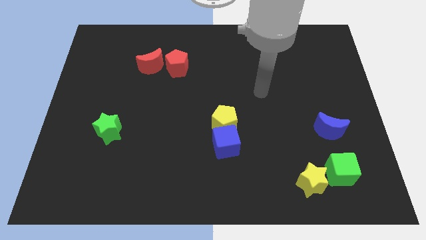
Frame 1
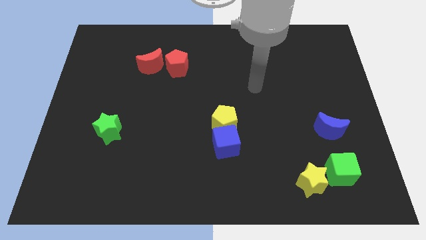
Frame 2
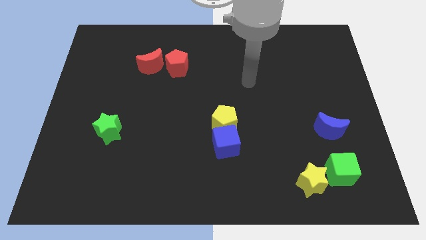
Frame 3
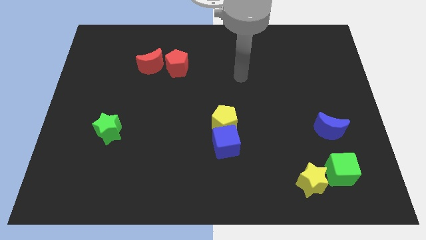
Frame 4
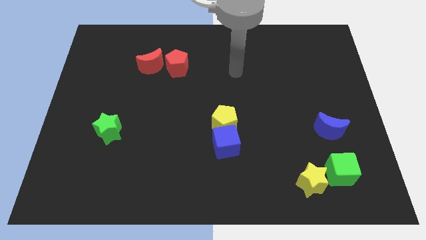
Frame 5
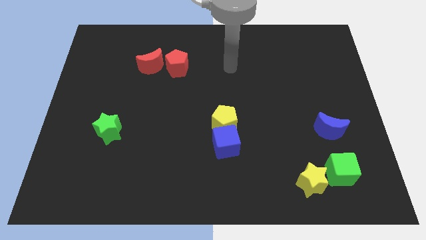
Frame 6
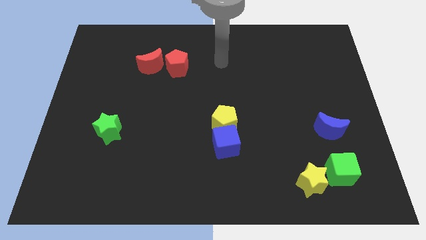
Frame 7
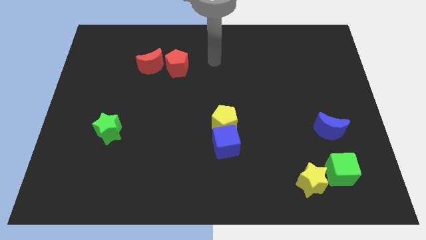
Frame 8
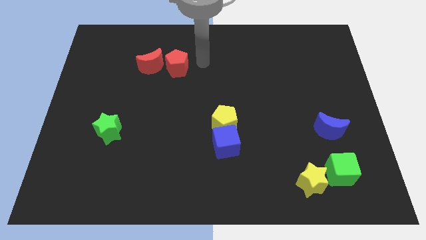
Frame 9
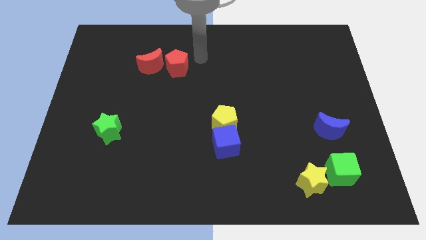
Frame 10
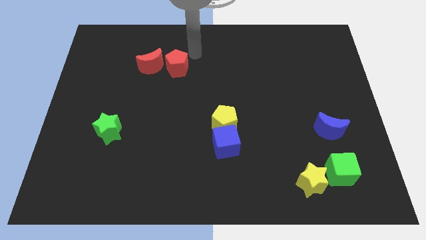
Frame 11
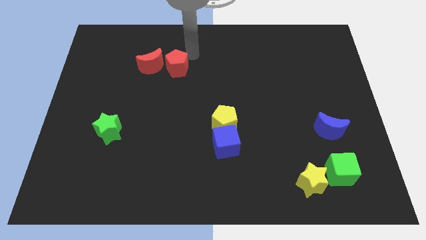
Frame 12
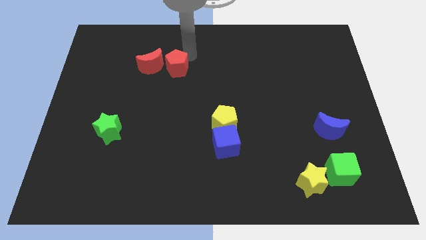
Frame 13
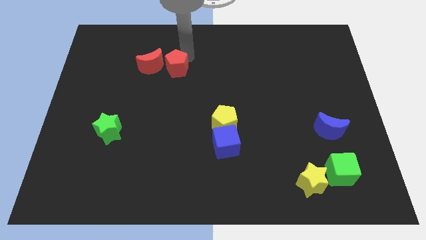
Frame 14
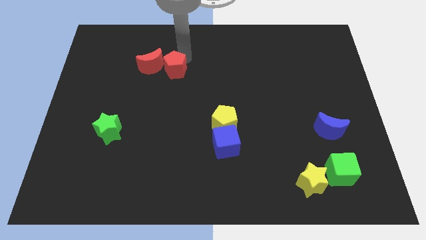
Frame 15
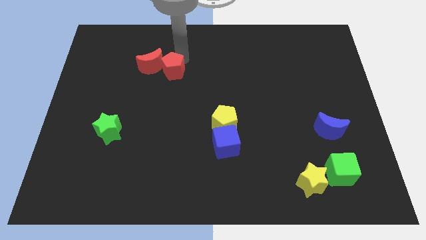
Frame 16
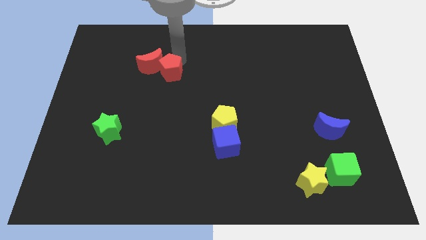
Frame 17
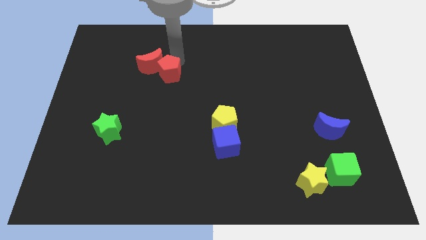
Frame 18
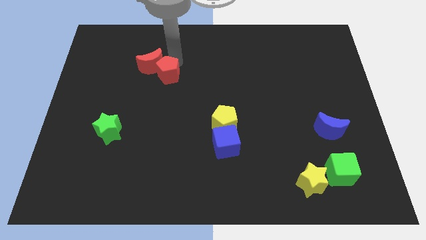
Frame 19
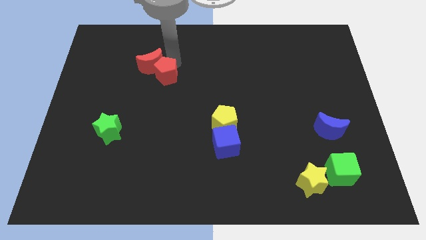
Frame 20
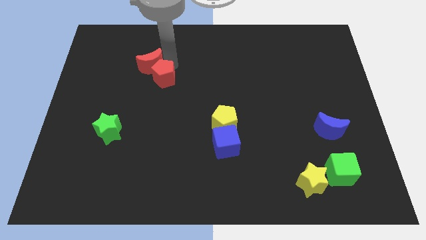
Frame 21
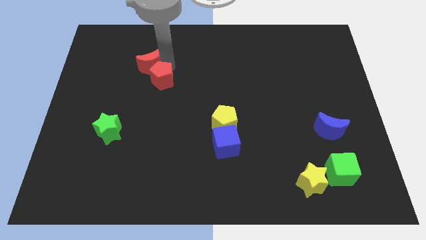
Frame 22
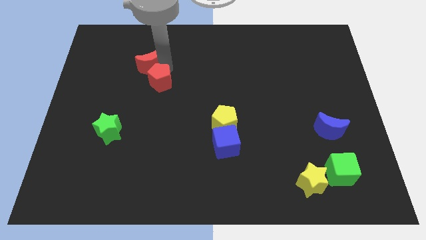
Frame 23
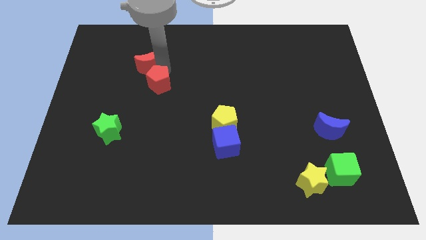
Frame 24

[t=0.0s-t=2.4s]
slightly push the red pentagon down and to the left diagonally

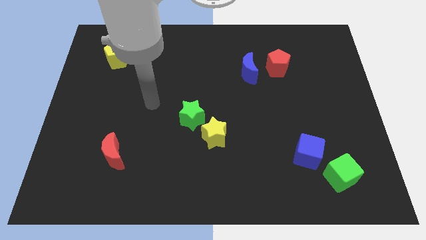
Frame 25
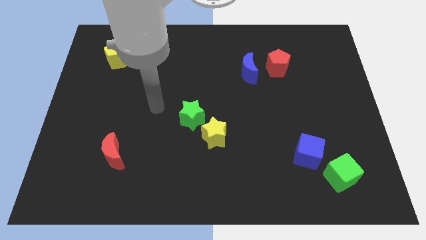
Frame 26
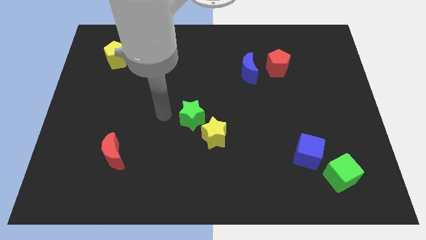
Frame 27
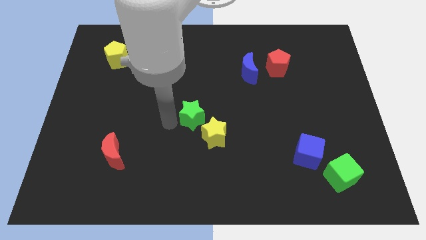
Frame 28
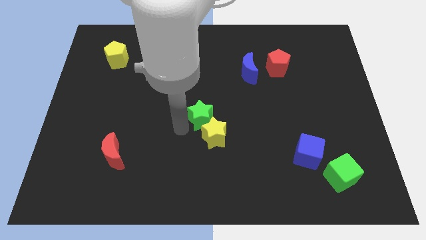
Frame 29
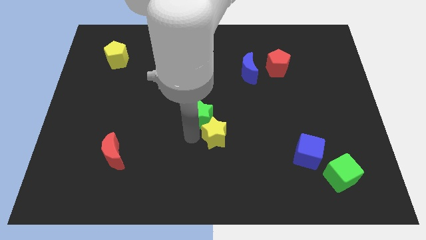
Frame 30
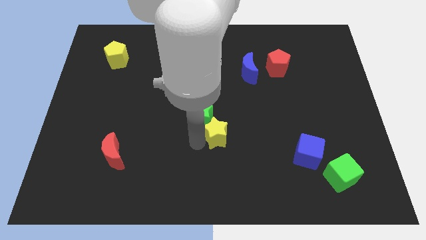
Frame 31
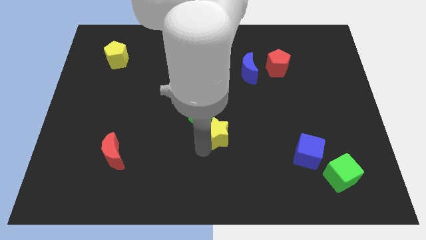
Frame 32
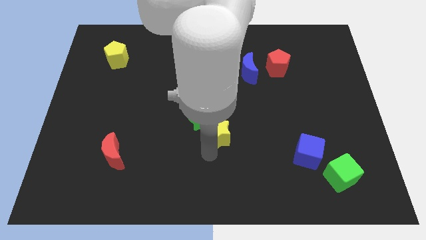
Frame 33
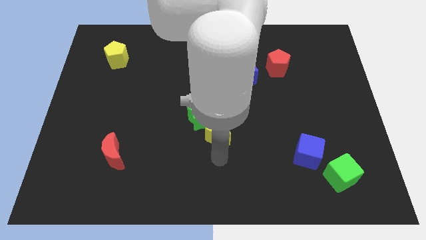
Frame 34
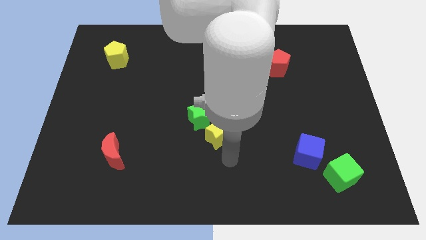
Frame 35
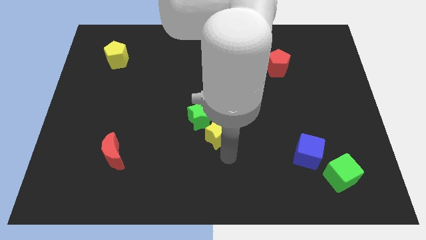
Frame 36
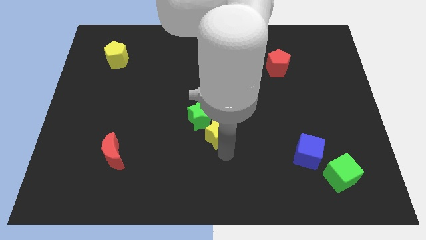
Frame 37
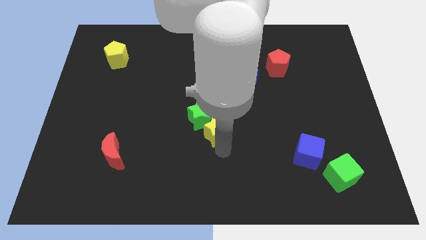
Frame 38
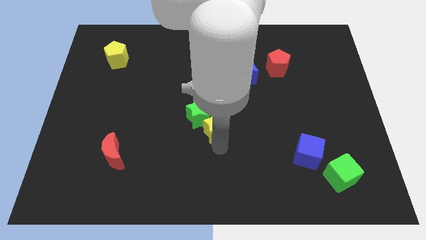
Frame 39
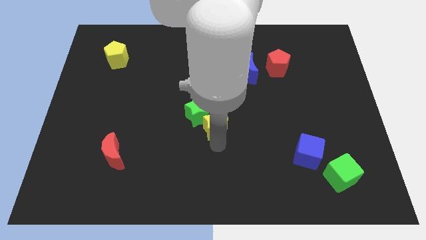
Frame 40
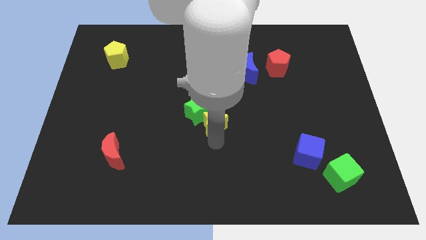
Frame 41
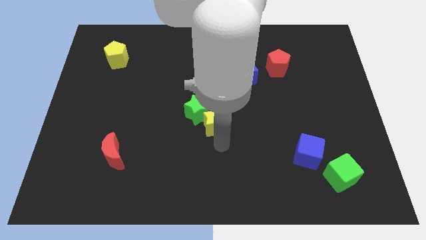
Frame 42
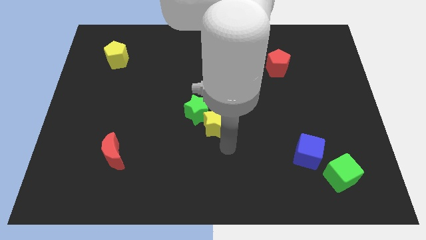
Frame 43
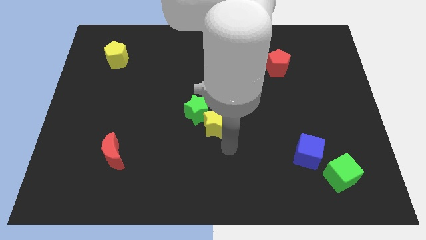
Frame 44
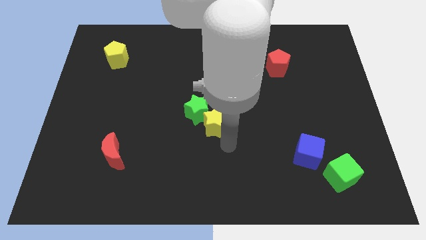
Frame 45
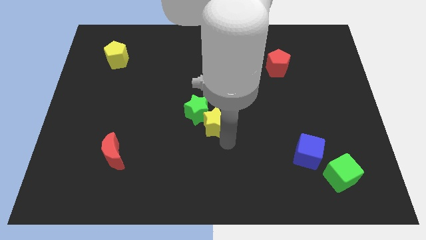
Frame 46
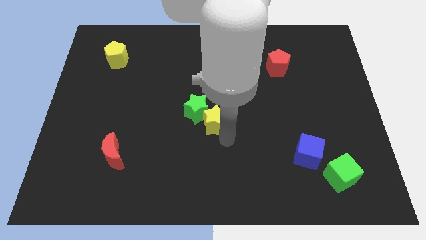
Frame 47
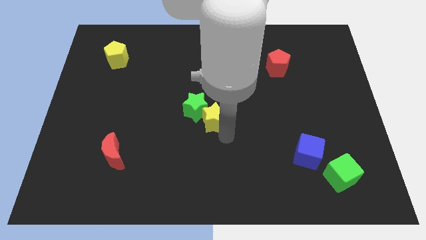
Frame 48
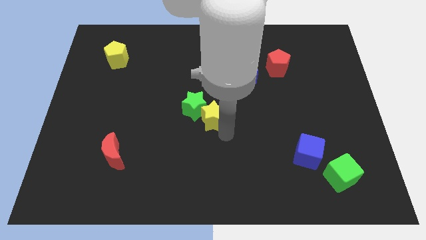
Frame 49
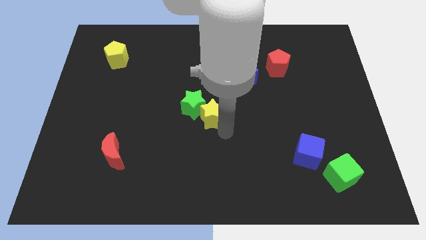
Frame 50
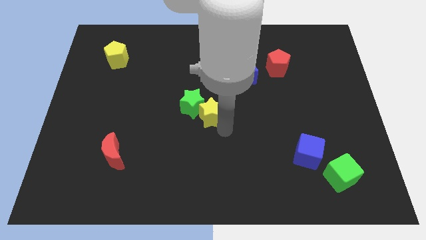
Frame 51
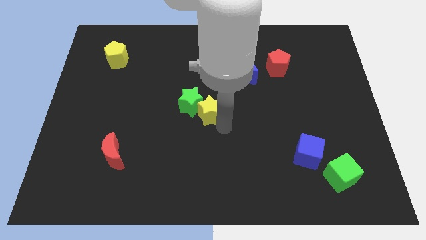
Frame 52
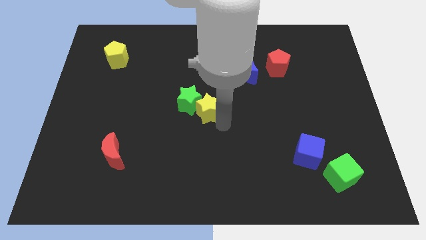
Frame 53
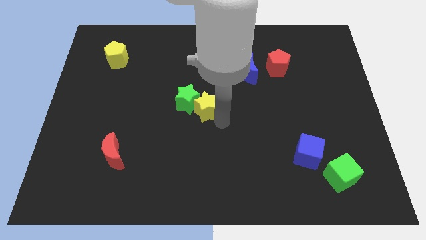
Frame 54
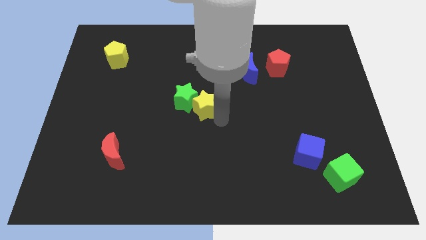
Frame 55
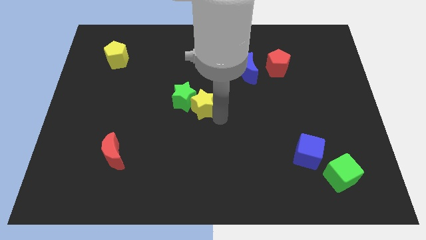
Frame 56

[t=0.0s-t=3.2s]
slightly move the yellow star upwards and to the left diagonally

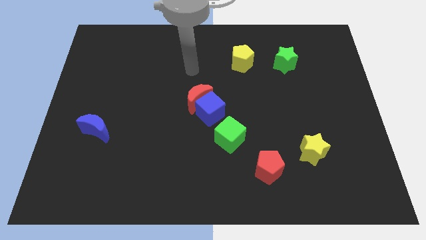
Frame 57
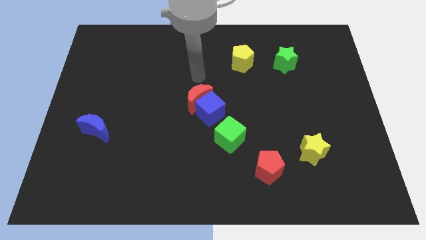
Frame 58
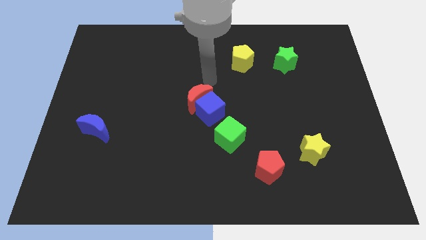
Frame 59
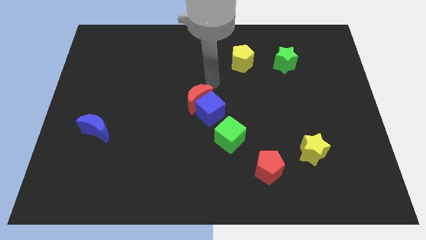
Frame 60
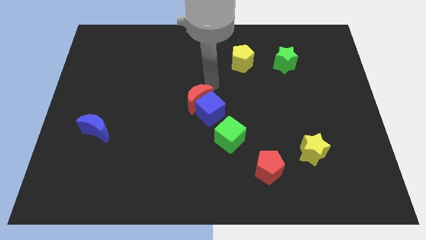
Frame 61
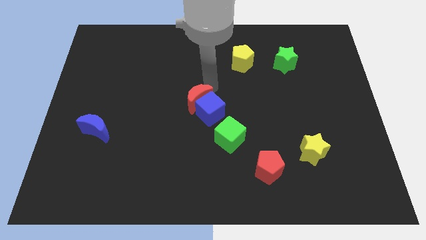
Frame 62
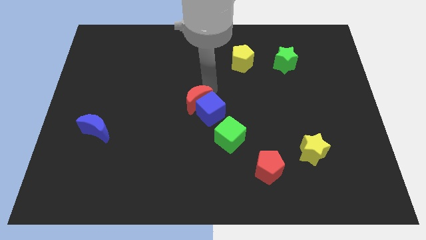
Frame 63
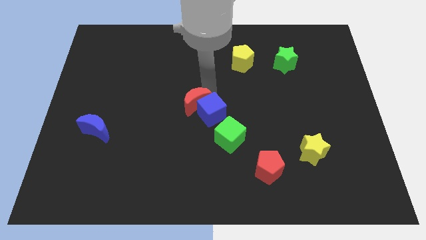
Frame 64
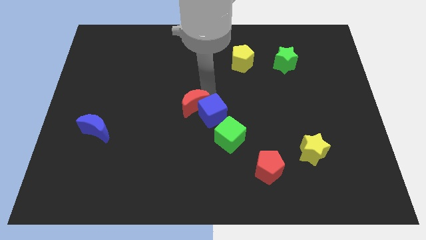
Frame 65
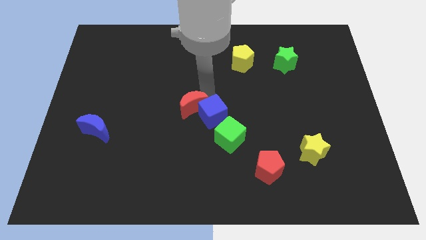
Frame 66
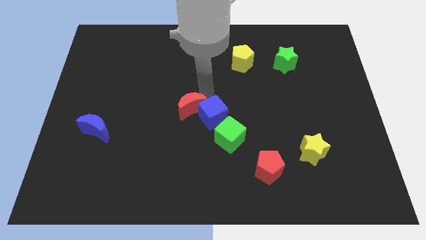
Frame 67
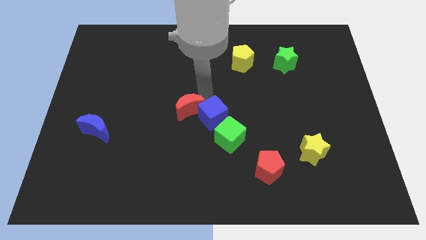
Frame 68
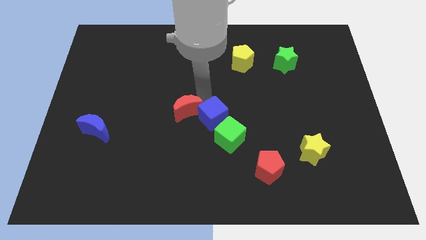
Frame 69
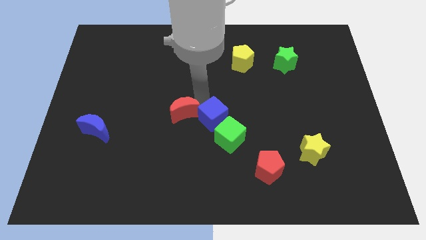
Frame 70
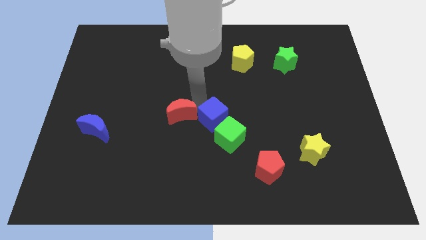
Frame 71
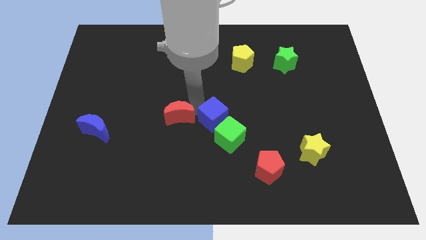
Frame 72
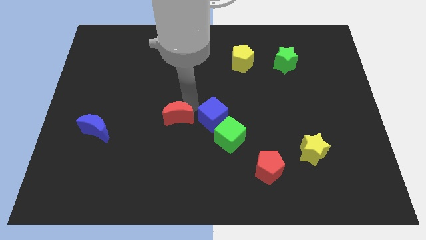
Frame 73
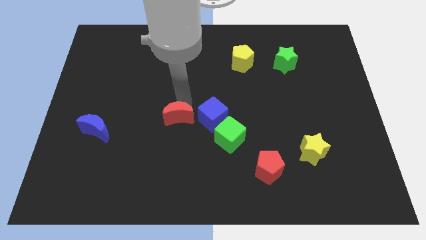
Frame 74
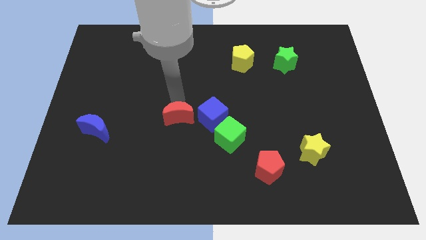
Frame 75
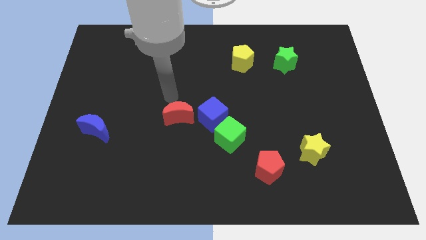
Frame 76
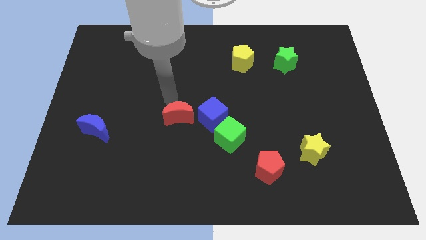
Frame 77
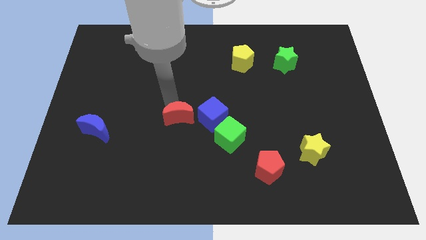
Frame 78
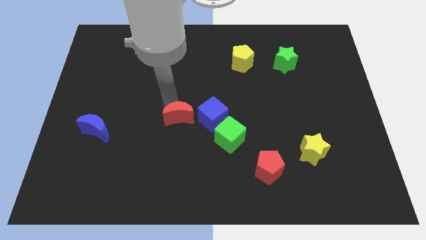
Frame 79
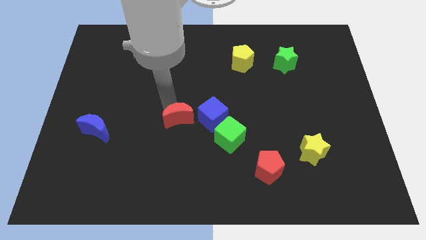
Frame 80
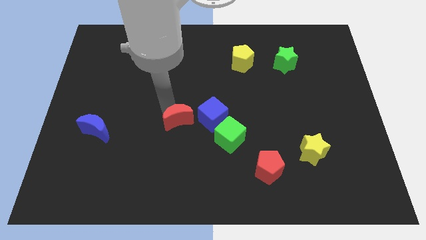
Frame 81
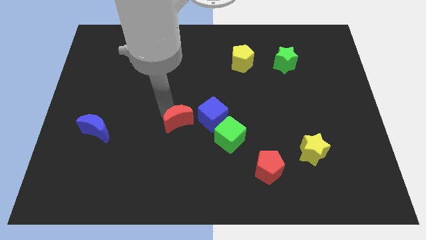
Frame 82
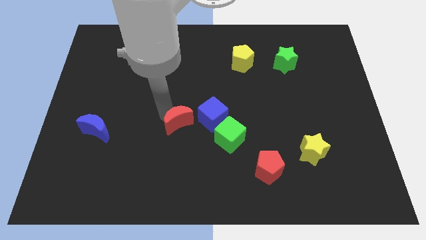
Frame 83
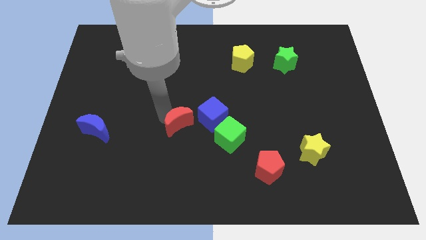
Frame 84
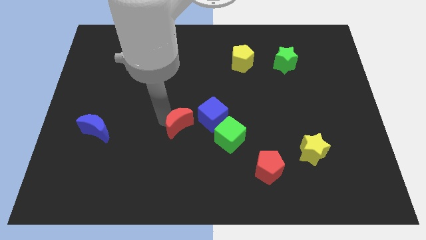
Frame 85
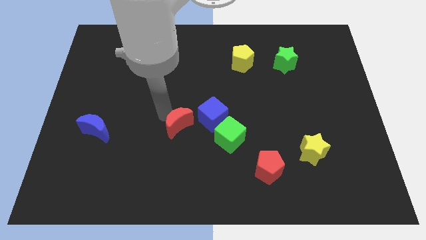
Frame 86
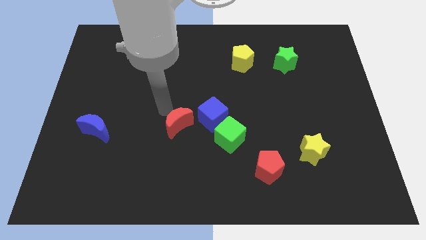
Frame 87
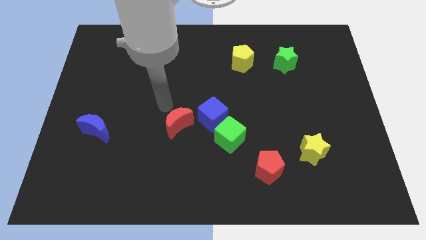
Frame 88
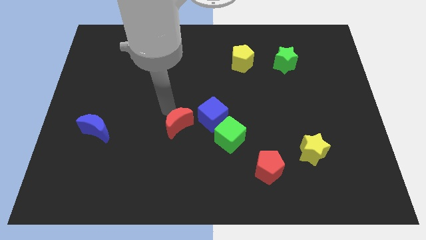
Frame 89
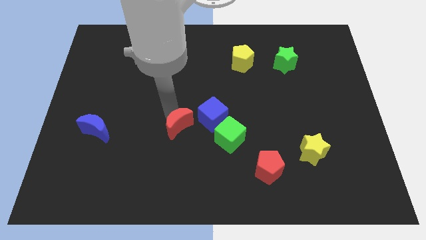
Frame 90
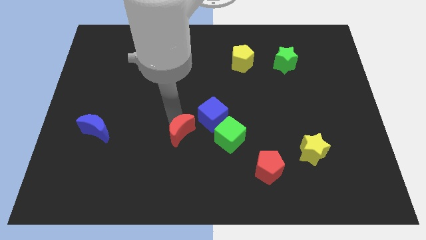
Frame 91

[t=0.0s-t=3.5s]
slide the red moon downwards a little
